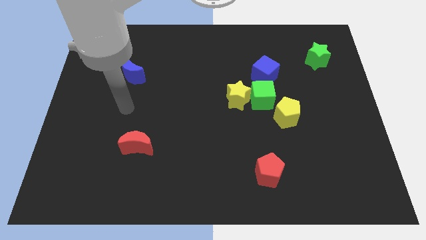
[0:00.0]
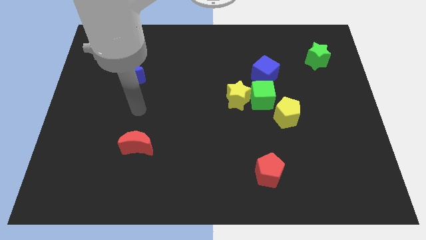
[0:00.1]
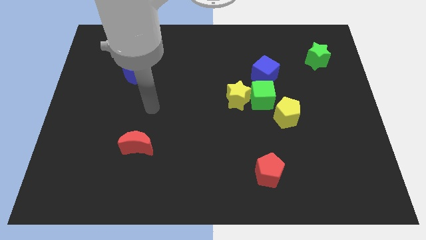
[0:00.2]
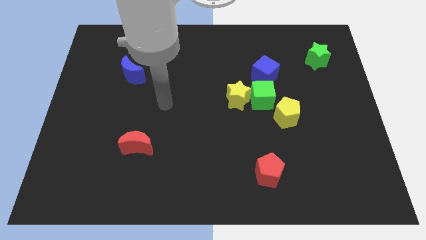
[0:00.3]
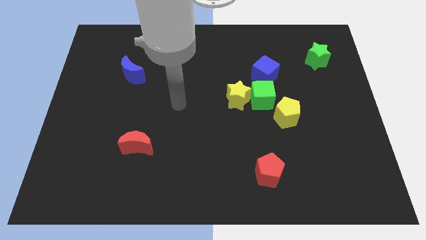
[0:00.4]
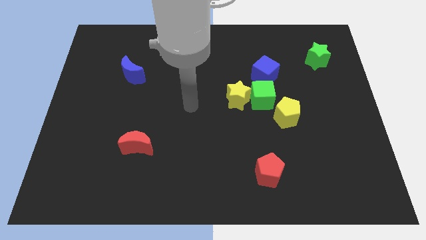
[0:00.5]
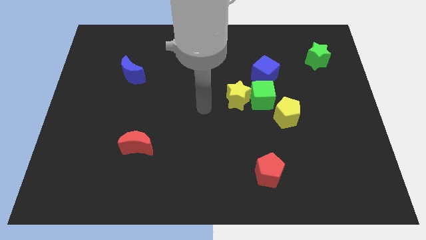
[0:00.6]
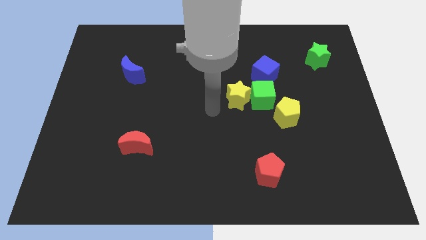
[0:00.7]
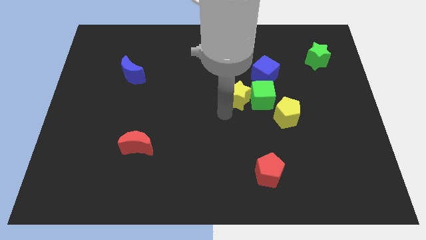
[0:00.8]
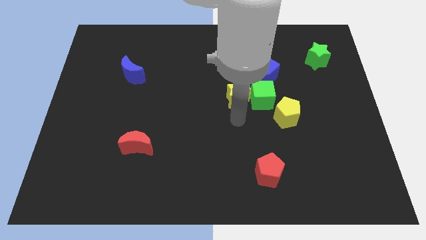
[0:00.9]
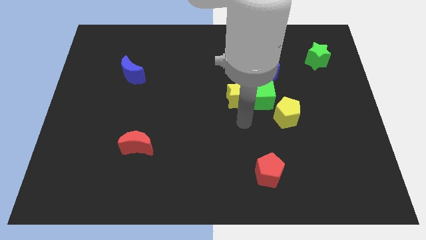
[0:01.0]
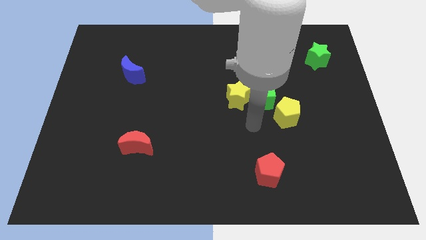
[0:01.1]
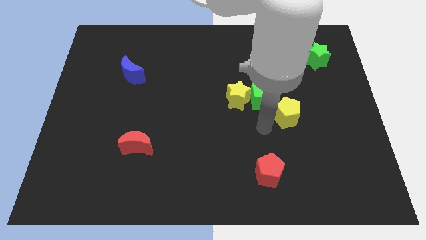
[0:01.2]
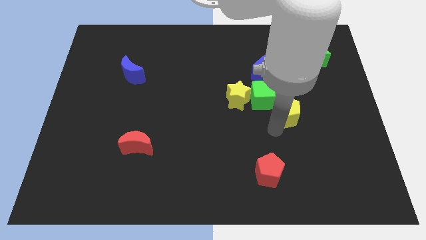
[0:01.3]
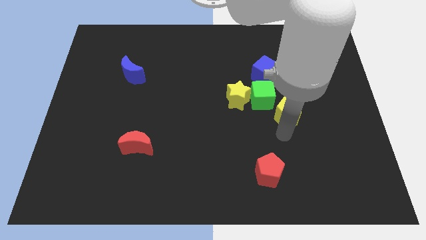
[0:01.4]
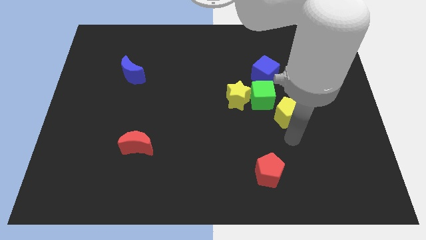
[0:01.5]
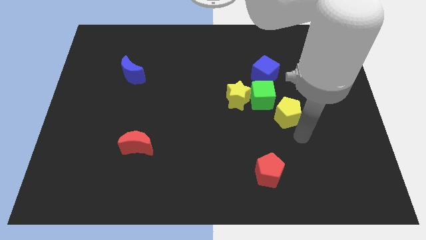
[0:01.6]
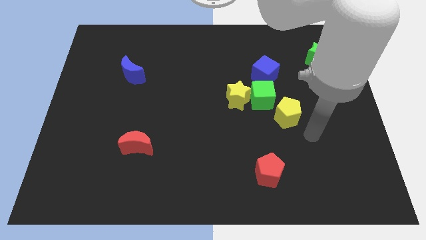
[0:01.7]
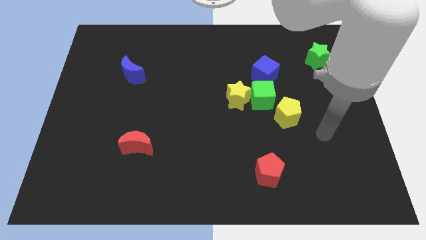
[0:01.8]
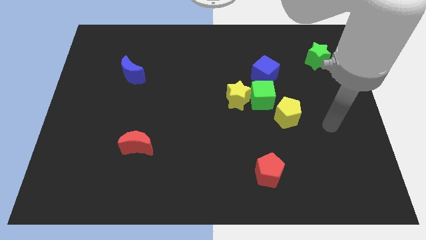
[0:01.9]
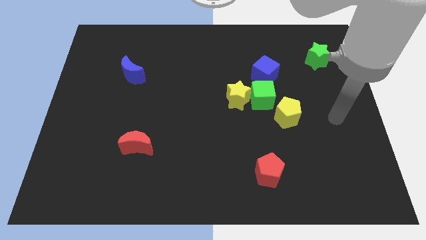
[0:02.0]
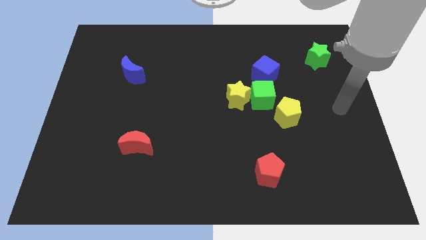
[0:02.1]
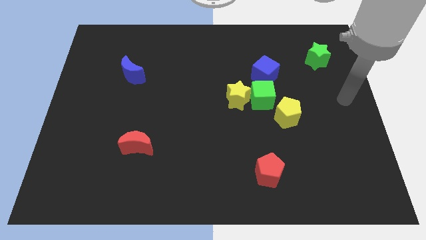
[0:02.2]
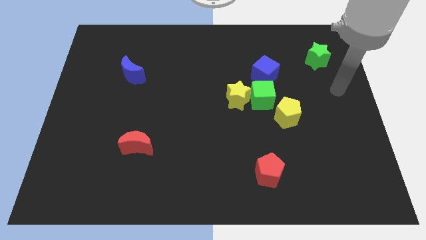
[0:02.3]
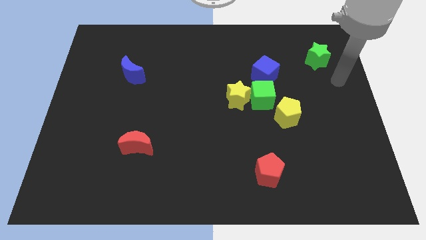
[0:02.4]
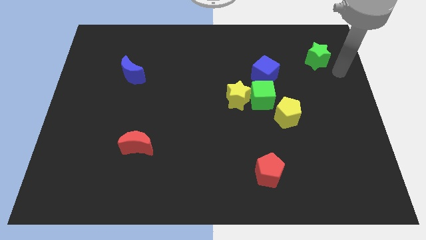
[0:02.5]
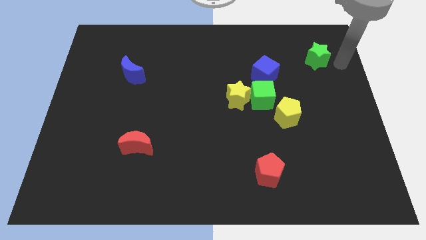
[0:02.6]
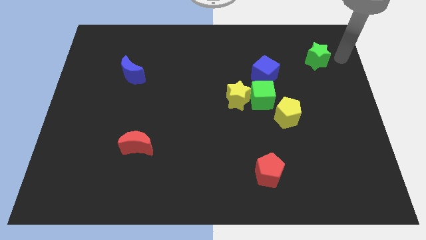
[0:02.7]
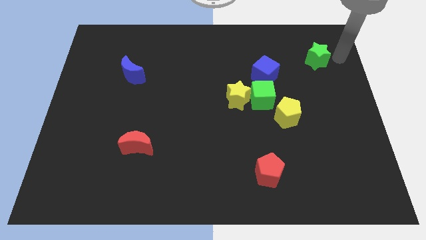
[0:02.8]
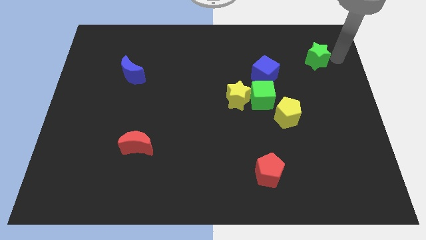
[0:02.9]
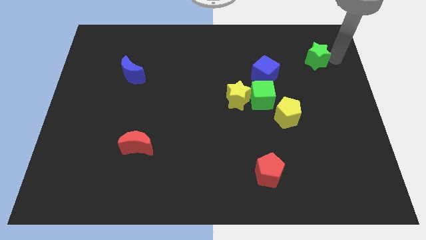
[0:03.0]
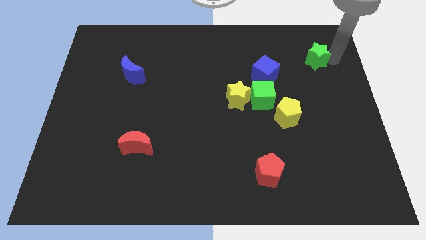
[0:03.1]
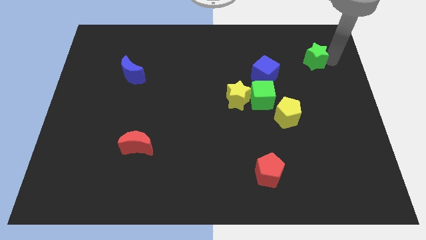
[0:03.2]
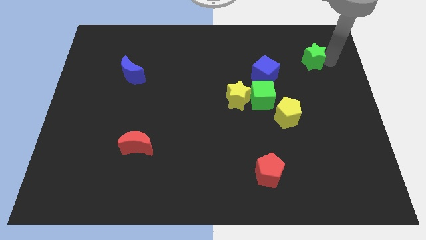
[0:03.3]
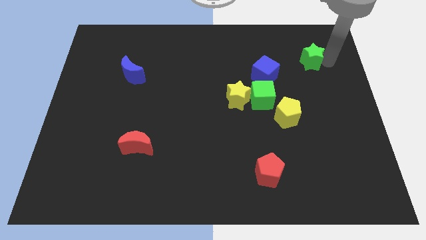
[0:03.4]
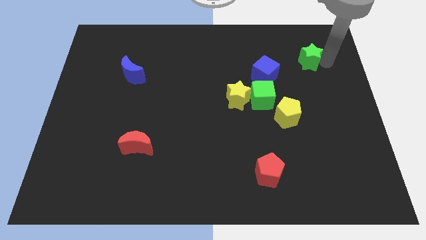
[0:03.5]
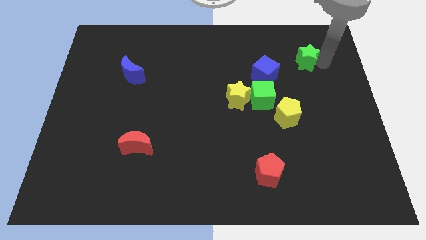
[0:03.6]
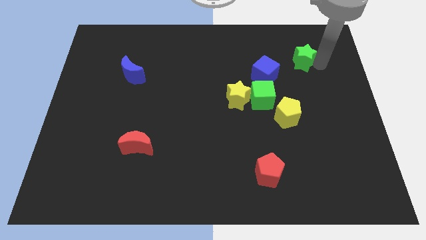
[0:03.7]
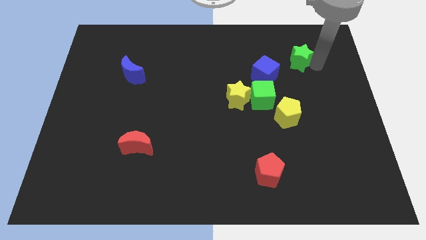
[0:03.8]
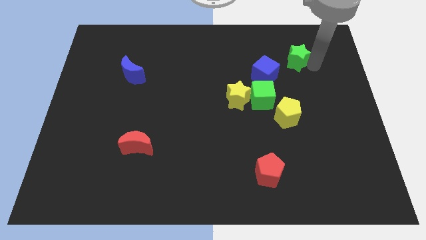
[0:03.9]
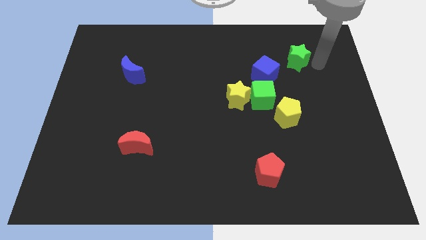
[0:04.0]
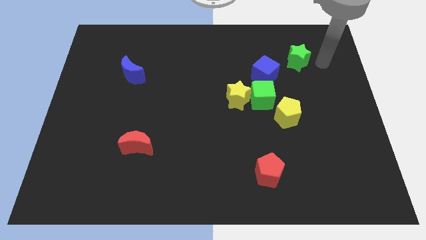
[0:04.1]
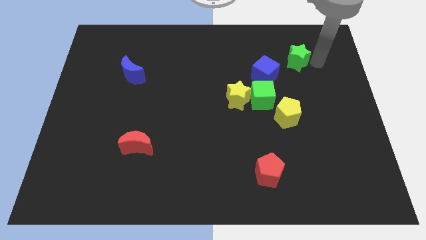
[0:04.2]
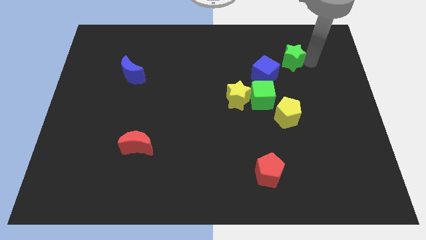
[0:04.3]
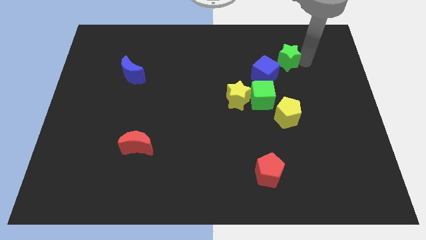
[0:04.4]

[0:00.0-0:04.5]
move the green star slightly left

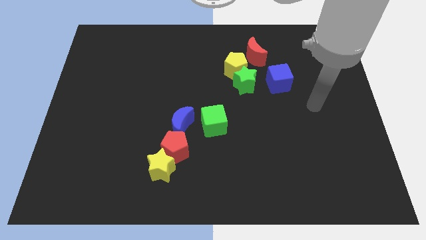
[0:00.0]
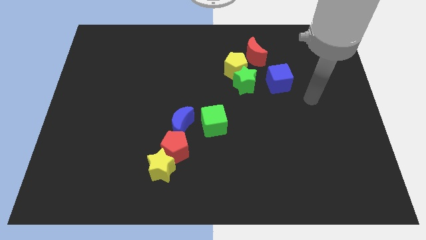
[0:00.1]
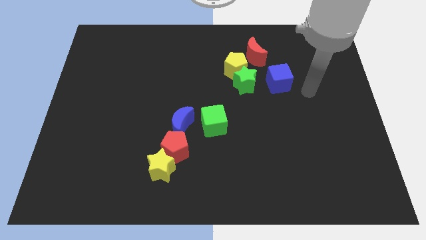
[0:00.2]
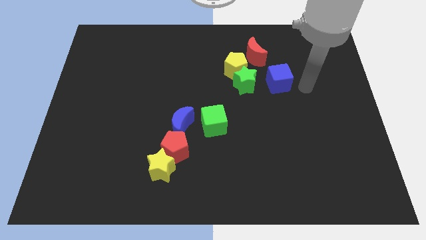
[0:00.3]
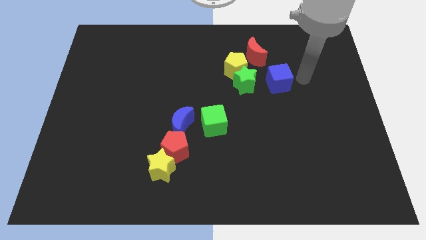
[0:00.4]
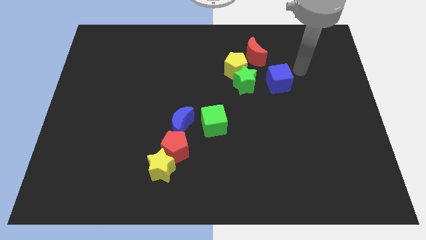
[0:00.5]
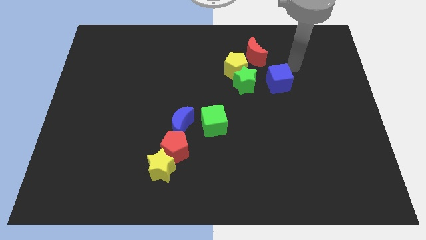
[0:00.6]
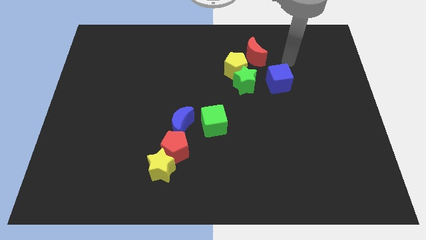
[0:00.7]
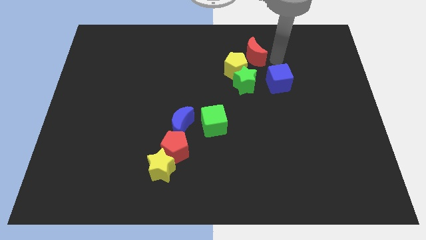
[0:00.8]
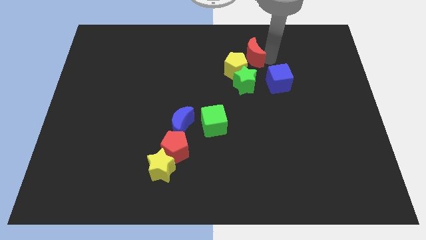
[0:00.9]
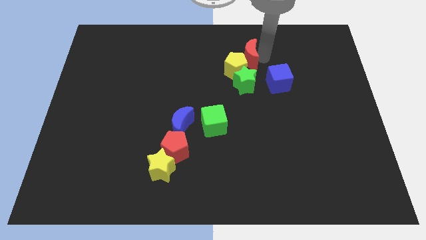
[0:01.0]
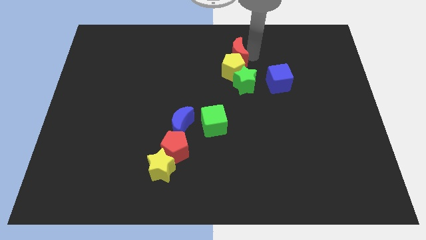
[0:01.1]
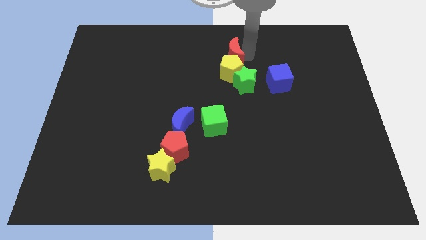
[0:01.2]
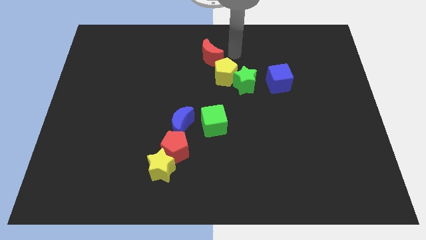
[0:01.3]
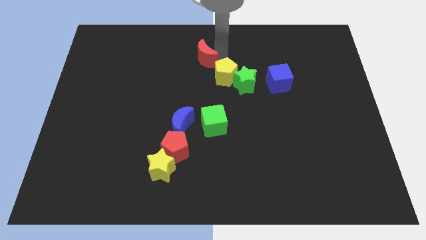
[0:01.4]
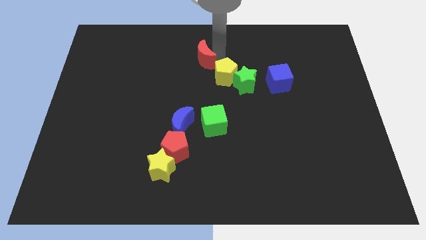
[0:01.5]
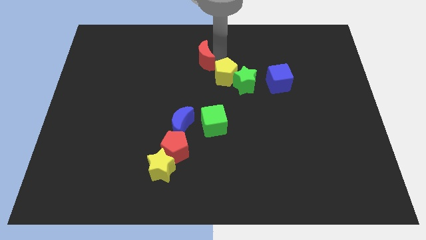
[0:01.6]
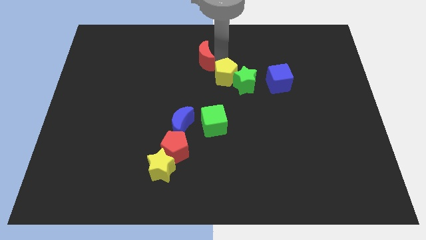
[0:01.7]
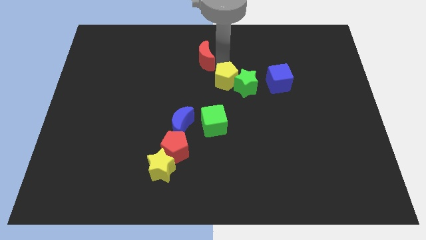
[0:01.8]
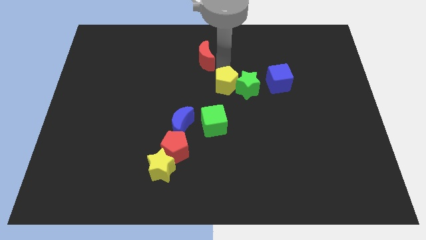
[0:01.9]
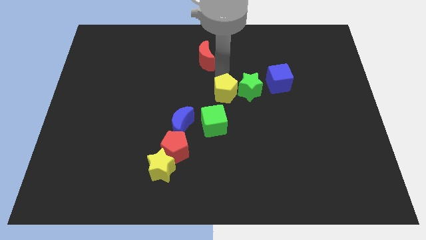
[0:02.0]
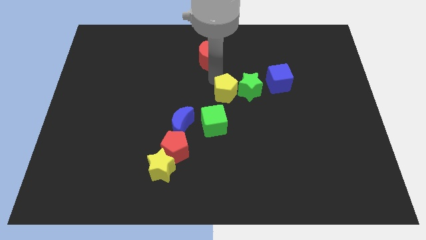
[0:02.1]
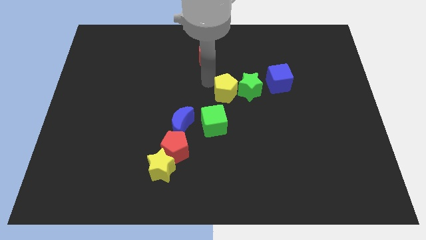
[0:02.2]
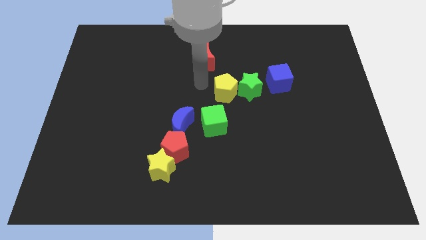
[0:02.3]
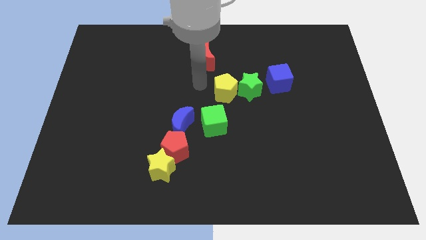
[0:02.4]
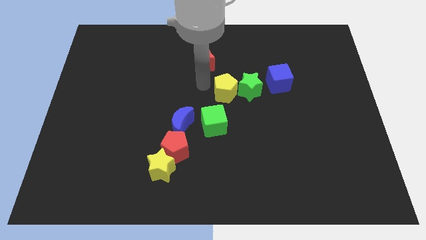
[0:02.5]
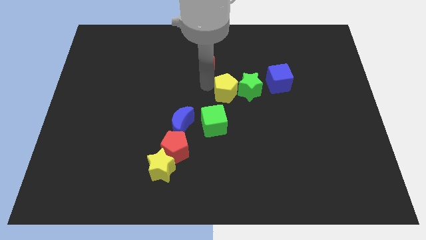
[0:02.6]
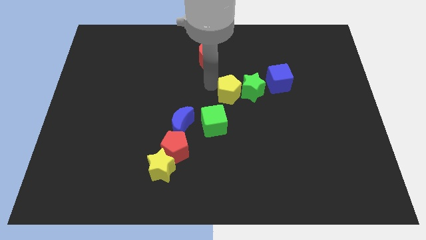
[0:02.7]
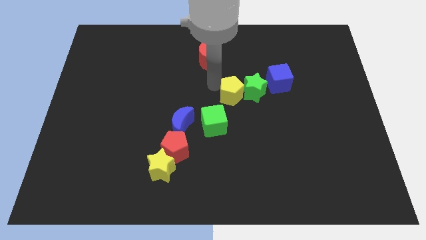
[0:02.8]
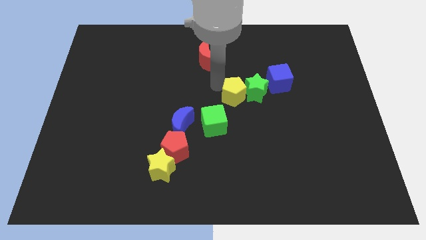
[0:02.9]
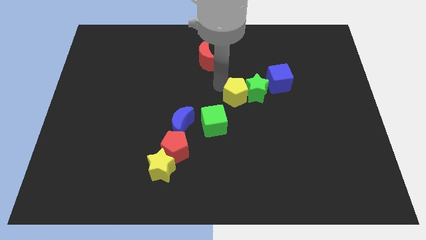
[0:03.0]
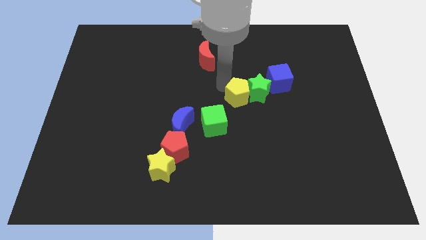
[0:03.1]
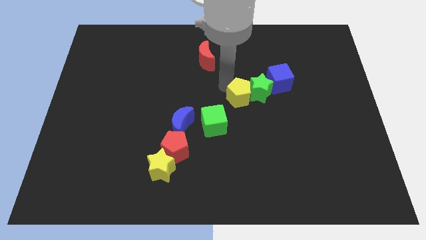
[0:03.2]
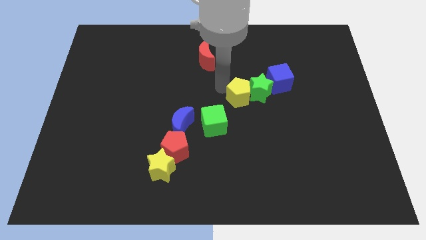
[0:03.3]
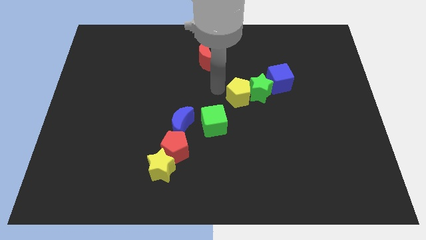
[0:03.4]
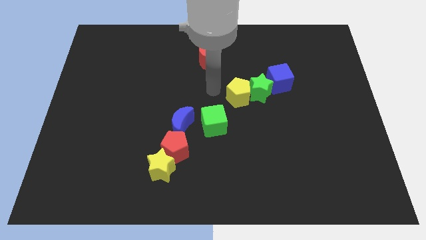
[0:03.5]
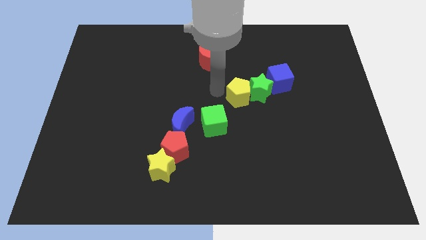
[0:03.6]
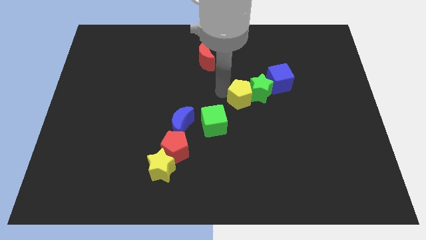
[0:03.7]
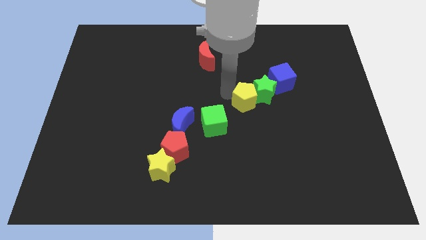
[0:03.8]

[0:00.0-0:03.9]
move the yellow pentagon a little bit down and right
